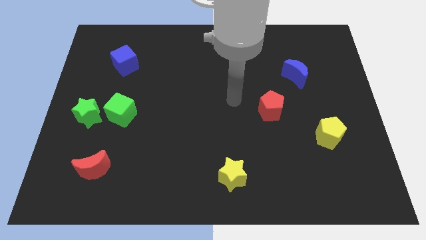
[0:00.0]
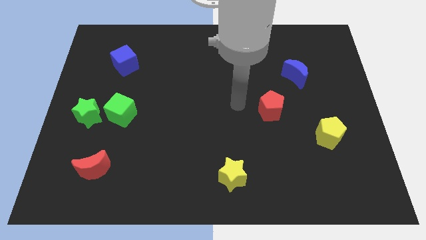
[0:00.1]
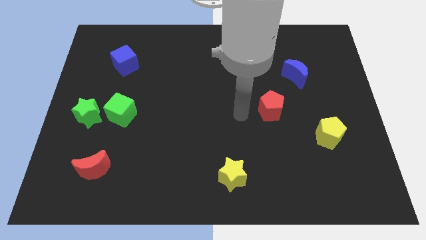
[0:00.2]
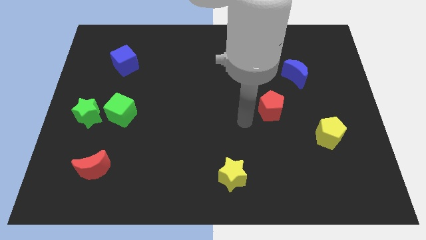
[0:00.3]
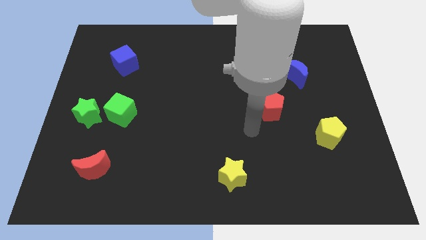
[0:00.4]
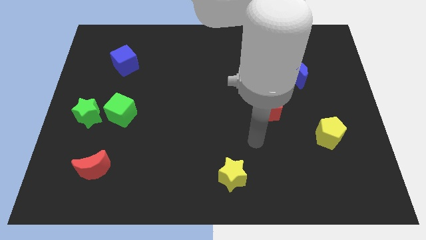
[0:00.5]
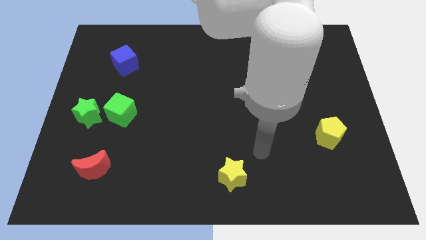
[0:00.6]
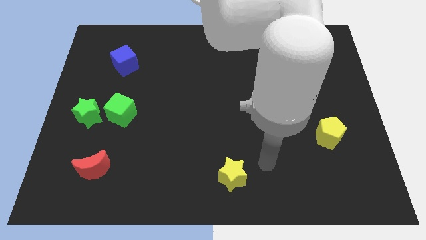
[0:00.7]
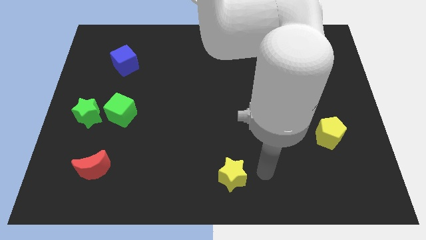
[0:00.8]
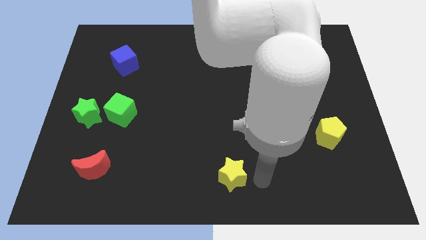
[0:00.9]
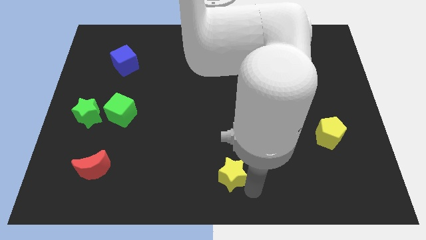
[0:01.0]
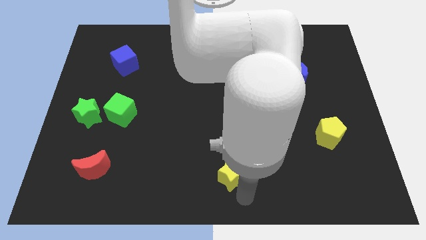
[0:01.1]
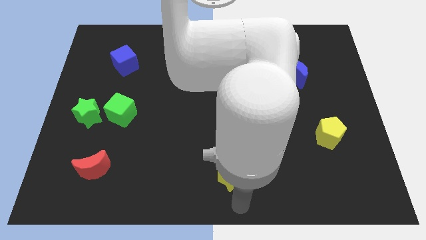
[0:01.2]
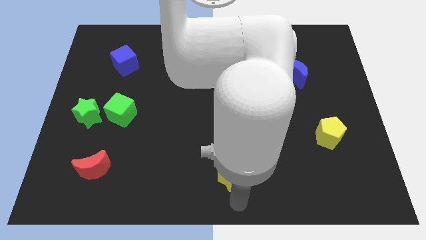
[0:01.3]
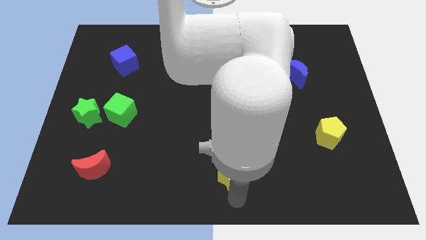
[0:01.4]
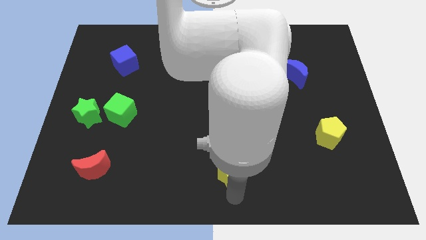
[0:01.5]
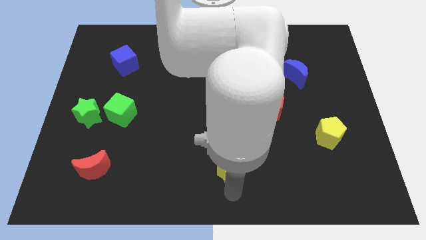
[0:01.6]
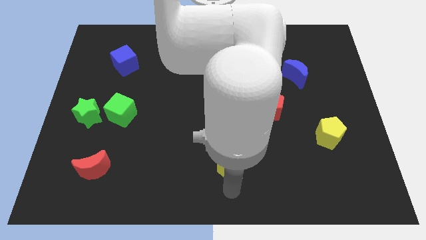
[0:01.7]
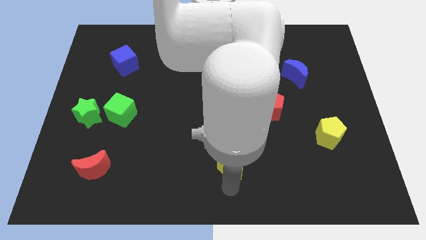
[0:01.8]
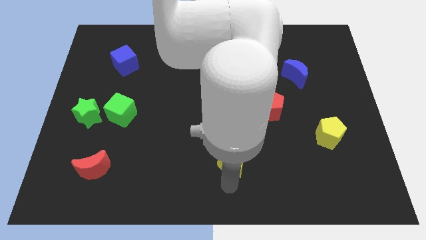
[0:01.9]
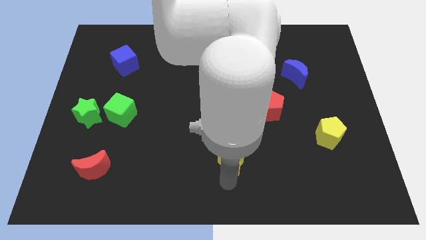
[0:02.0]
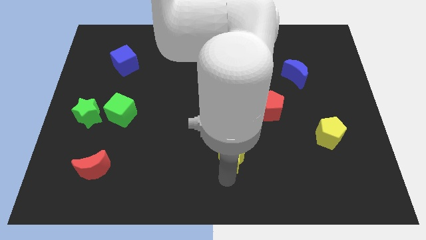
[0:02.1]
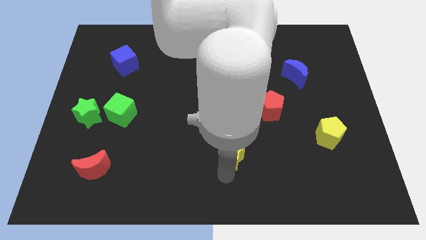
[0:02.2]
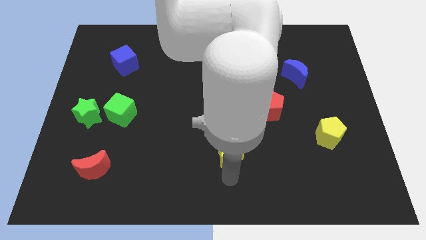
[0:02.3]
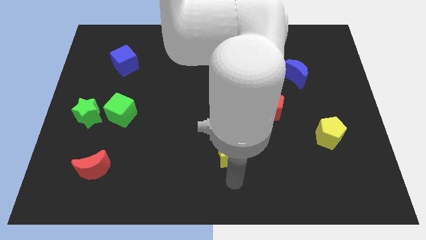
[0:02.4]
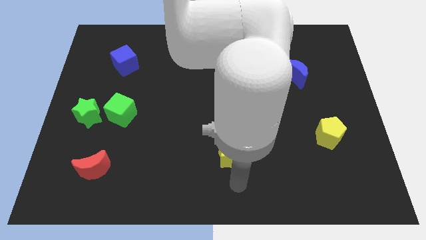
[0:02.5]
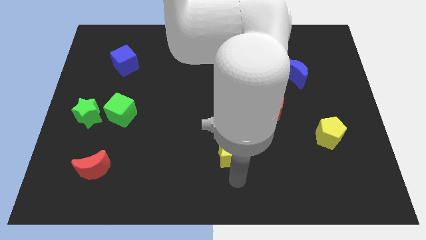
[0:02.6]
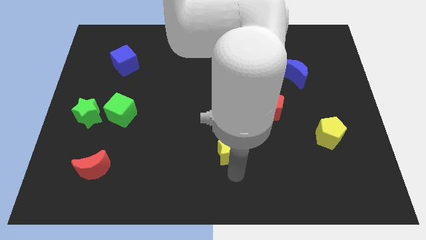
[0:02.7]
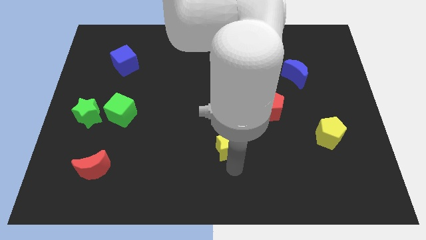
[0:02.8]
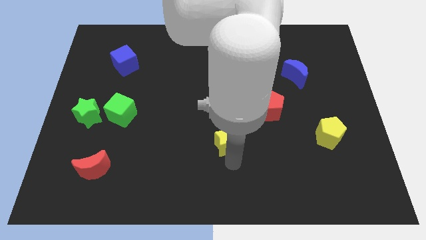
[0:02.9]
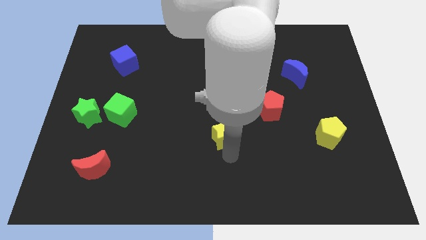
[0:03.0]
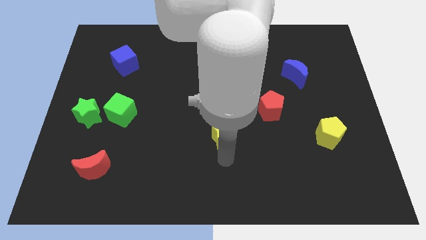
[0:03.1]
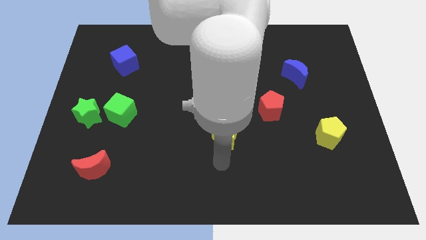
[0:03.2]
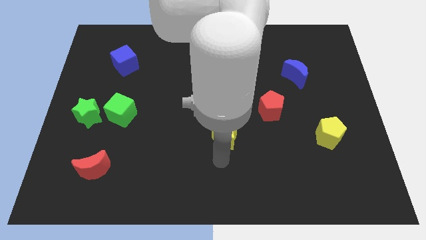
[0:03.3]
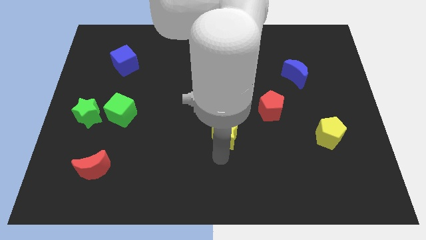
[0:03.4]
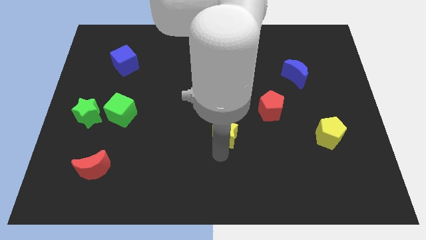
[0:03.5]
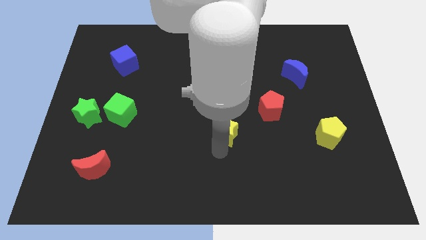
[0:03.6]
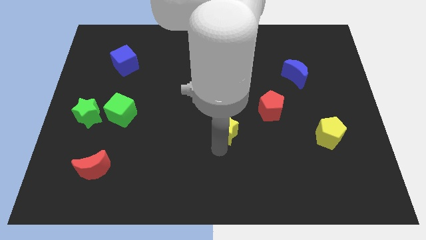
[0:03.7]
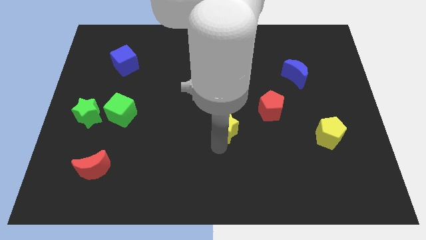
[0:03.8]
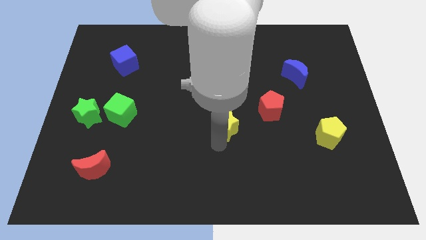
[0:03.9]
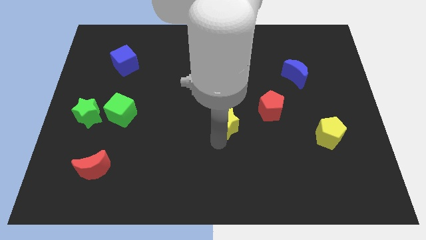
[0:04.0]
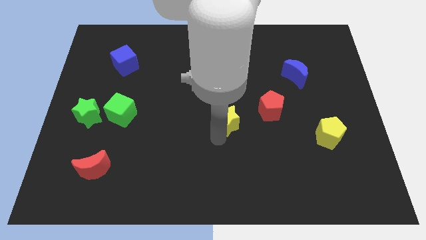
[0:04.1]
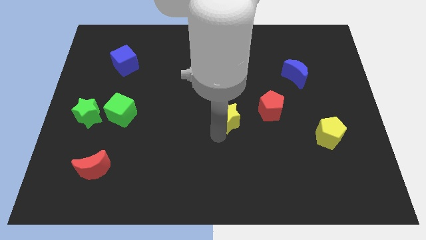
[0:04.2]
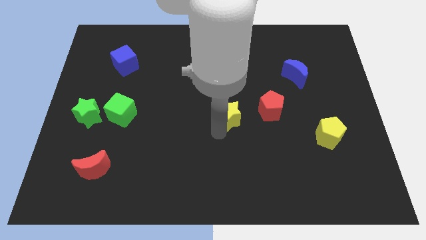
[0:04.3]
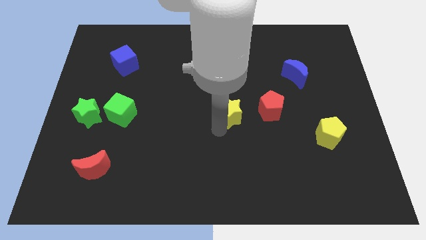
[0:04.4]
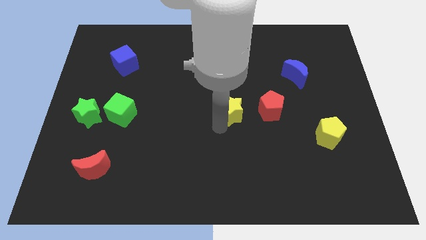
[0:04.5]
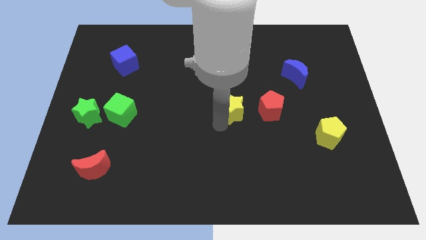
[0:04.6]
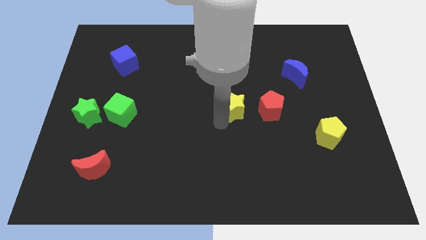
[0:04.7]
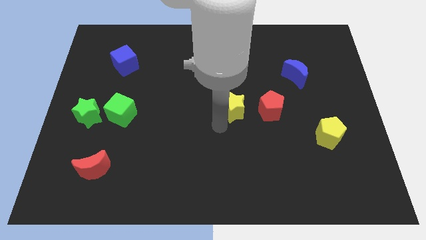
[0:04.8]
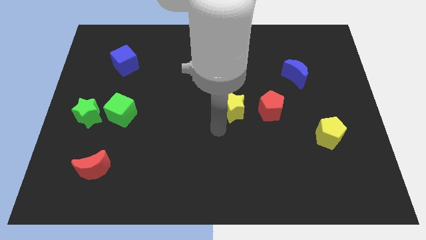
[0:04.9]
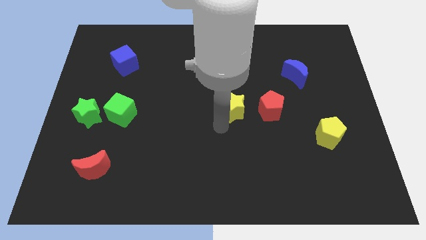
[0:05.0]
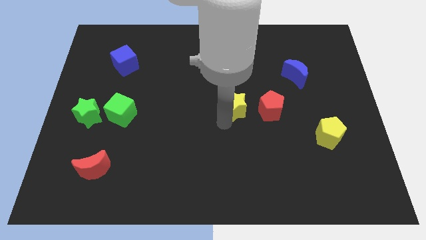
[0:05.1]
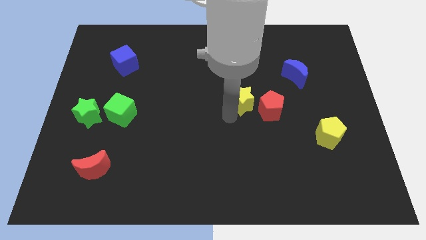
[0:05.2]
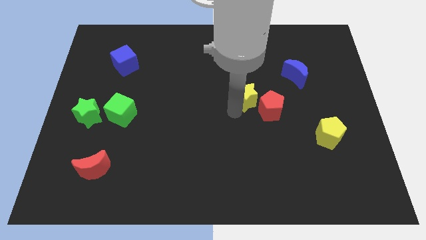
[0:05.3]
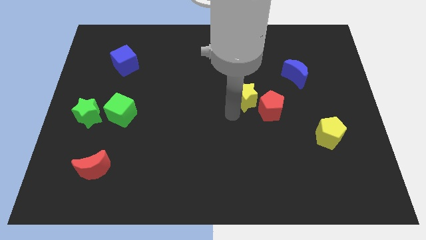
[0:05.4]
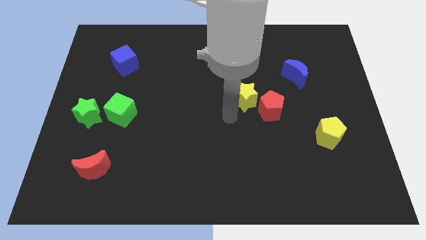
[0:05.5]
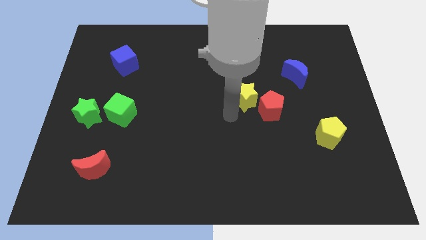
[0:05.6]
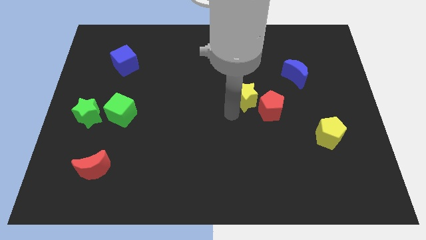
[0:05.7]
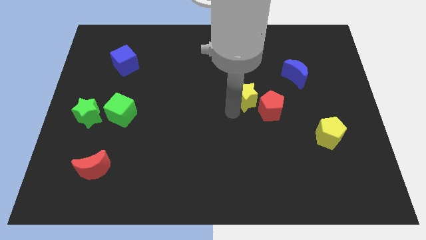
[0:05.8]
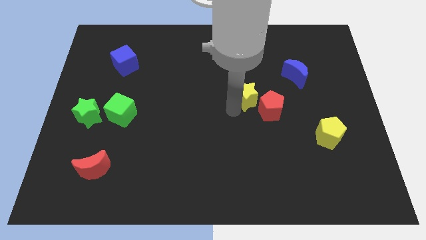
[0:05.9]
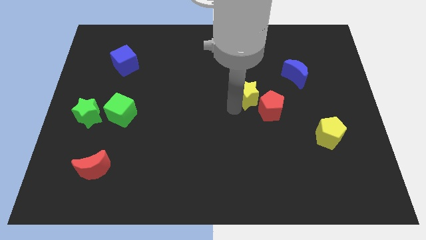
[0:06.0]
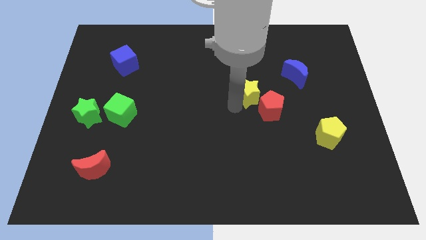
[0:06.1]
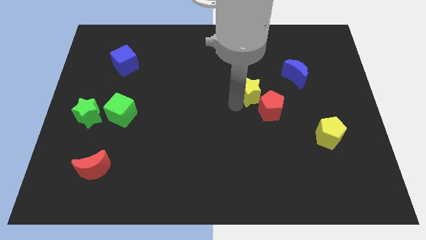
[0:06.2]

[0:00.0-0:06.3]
move the yellow star to the top of the red pentagon
